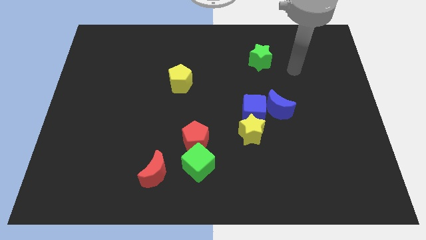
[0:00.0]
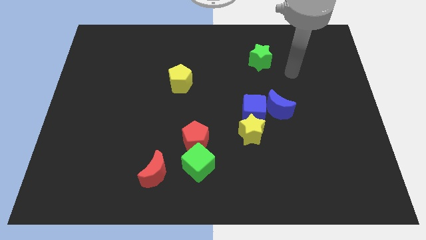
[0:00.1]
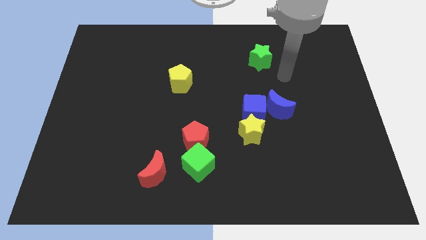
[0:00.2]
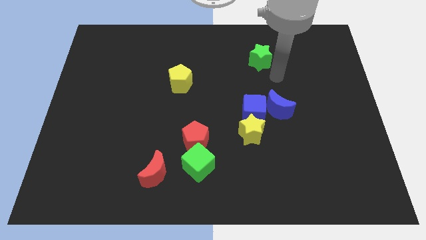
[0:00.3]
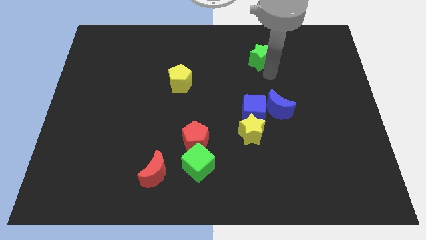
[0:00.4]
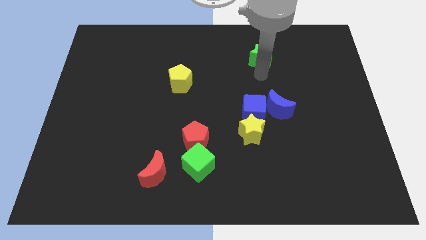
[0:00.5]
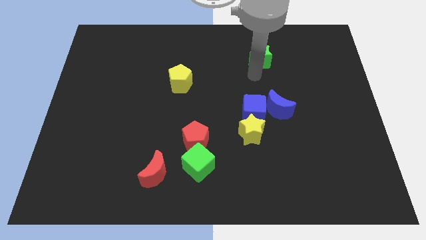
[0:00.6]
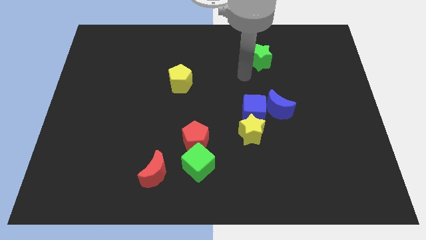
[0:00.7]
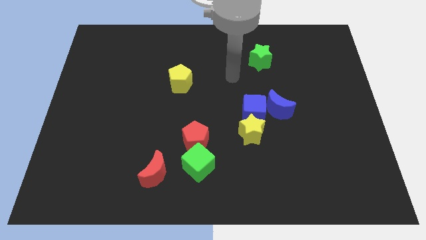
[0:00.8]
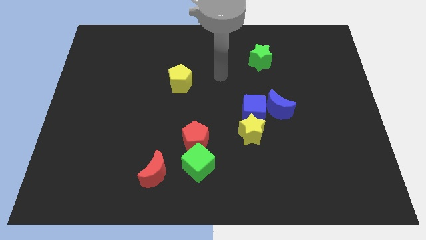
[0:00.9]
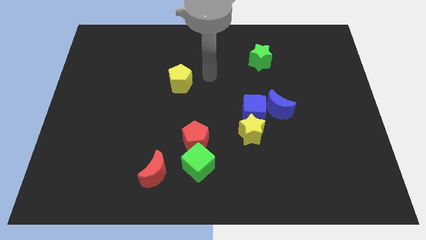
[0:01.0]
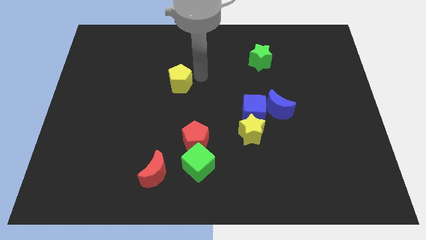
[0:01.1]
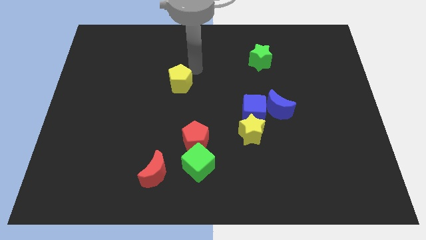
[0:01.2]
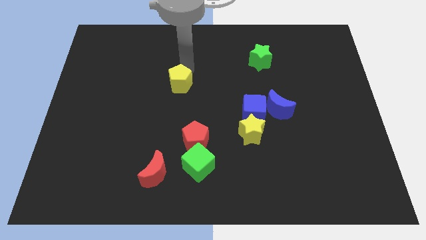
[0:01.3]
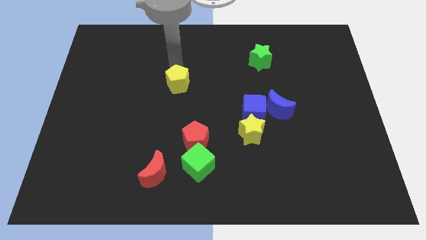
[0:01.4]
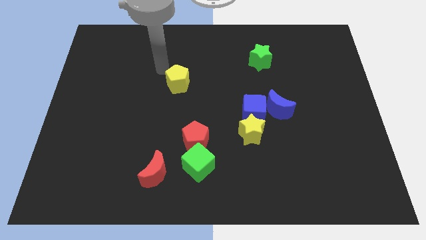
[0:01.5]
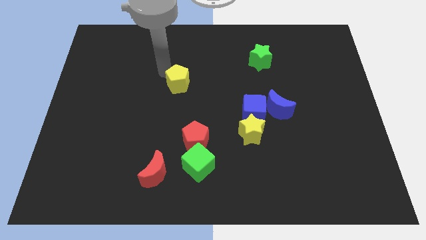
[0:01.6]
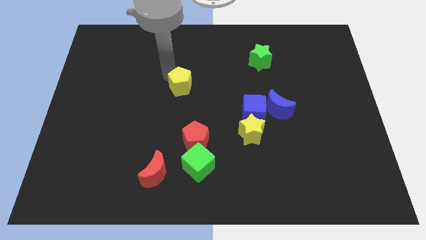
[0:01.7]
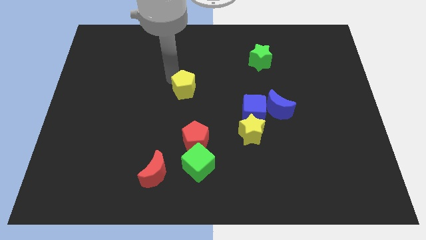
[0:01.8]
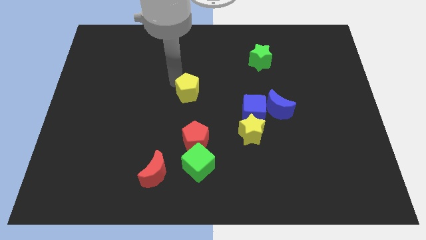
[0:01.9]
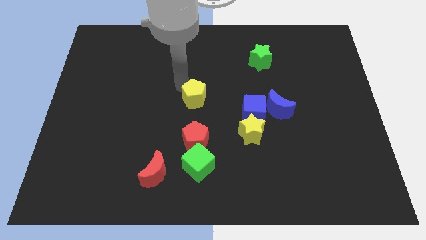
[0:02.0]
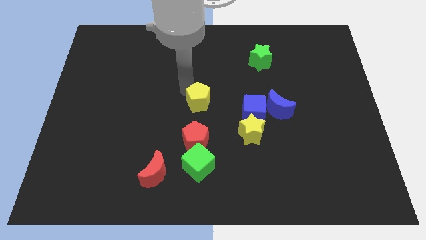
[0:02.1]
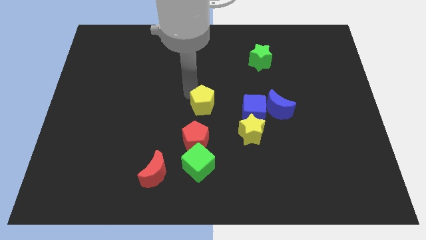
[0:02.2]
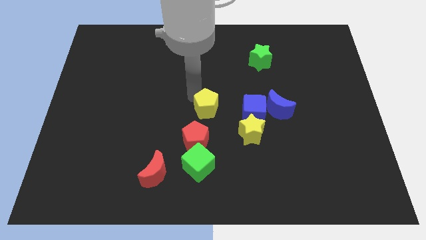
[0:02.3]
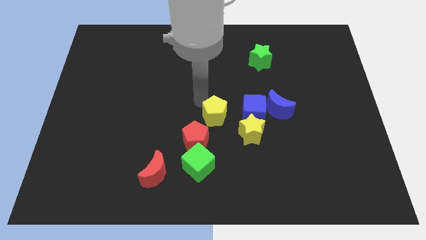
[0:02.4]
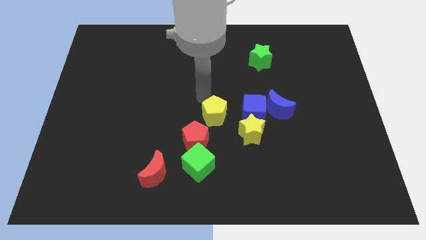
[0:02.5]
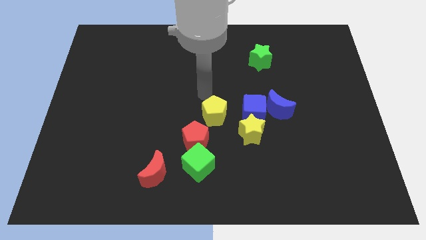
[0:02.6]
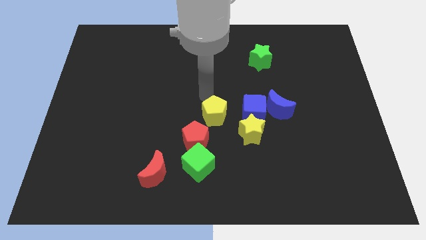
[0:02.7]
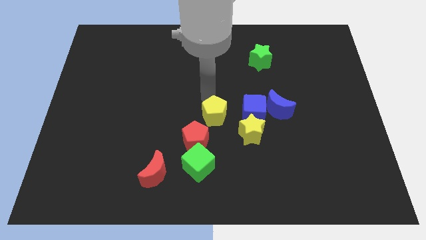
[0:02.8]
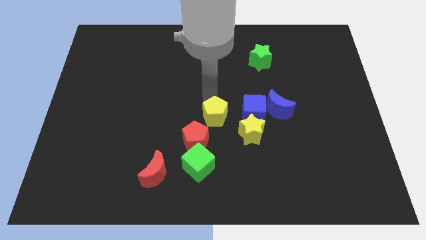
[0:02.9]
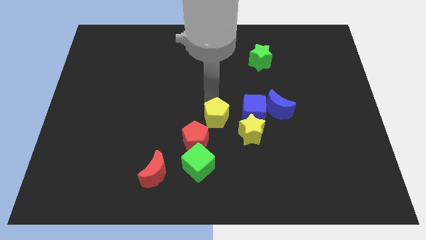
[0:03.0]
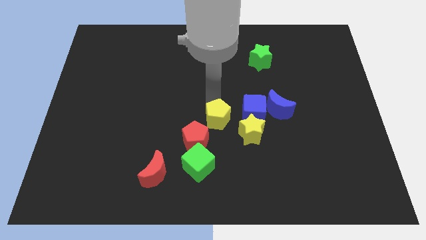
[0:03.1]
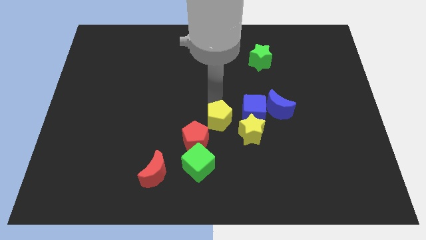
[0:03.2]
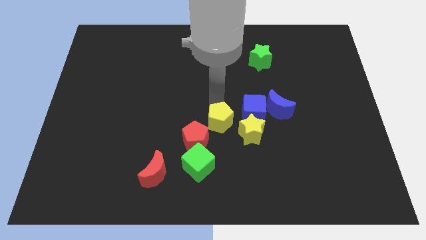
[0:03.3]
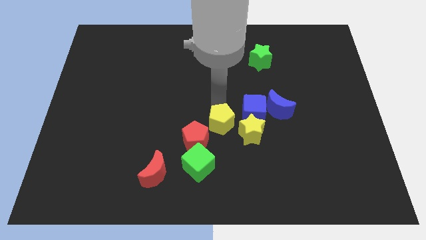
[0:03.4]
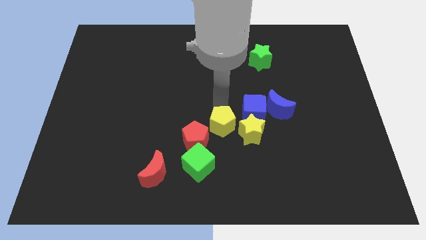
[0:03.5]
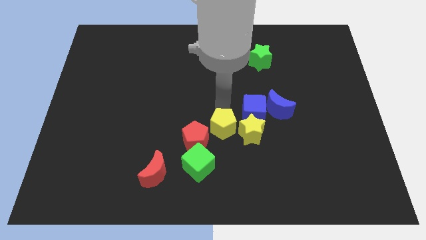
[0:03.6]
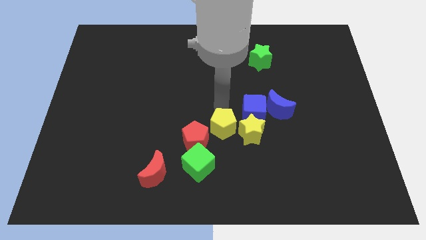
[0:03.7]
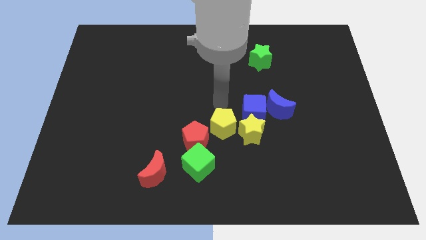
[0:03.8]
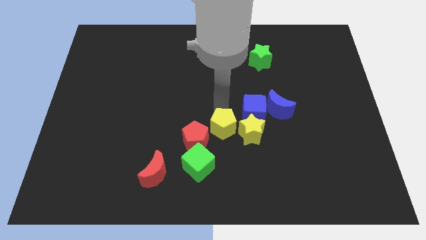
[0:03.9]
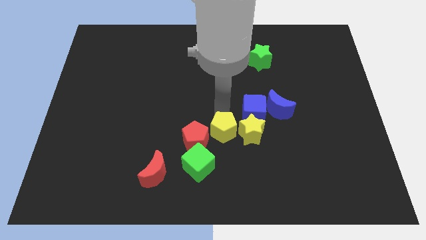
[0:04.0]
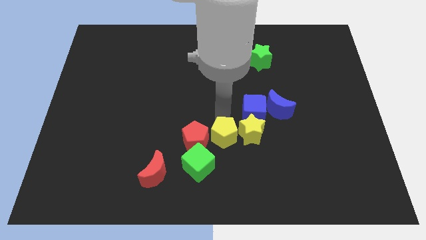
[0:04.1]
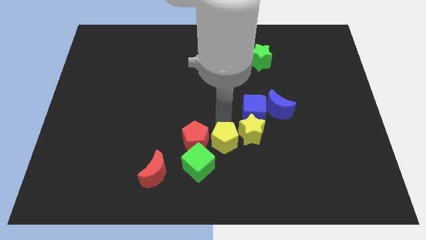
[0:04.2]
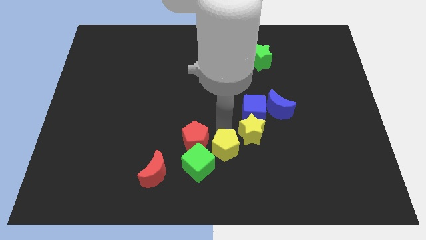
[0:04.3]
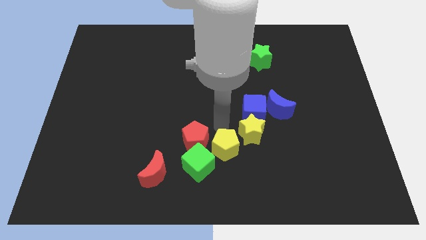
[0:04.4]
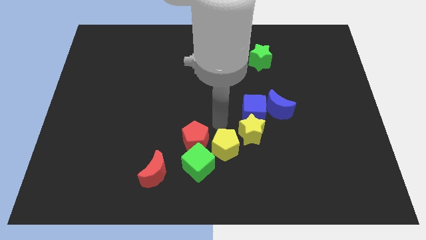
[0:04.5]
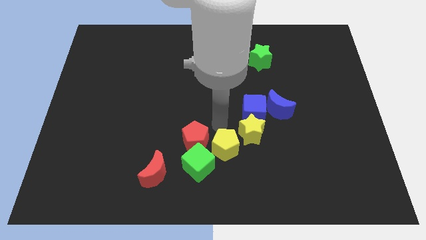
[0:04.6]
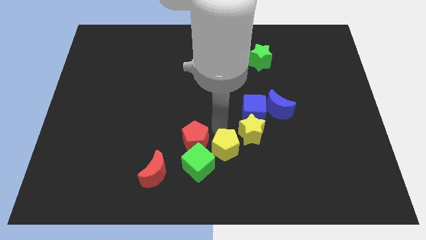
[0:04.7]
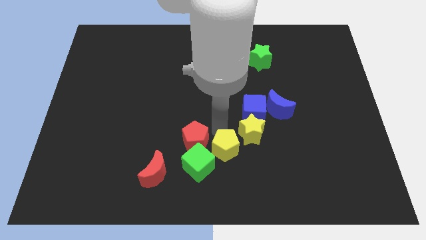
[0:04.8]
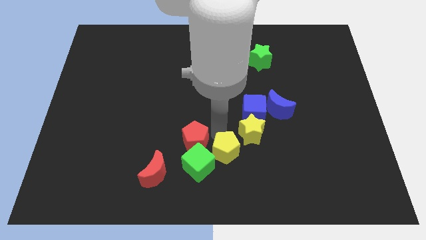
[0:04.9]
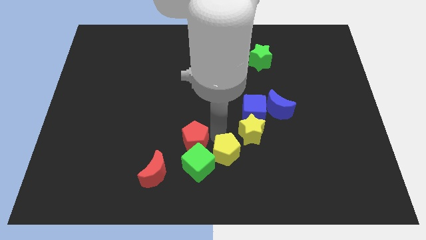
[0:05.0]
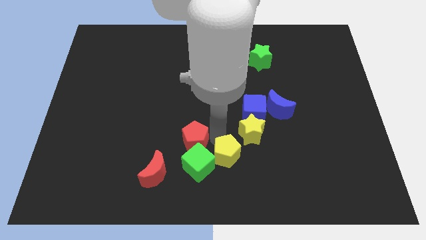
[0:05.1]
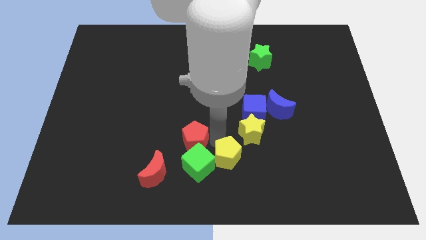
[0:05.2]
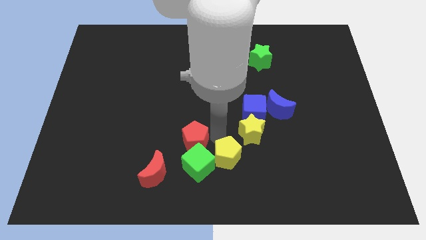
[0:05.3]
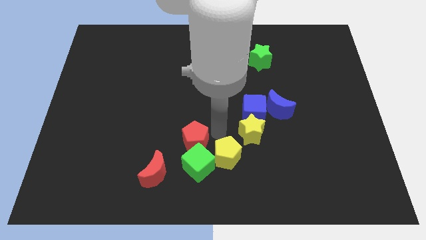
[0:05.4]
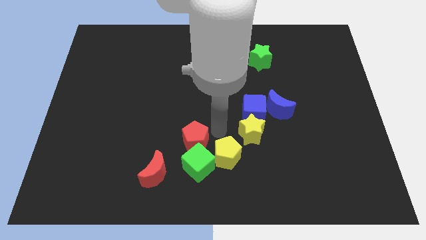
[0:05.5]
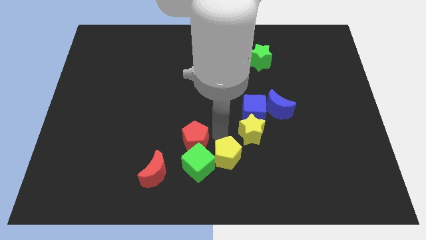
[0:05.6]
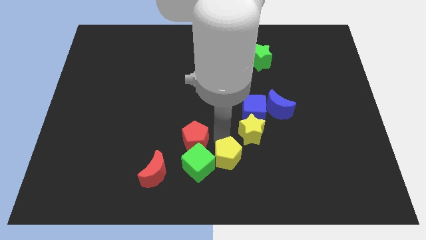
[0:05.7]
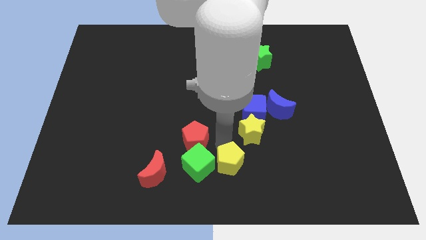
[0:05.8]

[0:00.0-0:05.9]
push the yellow pentagon to the right side of the red moon

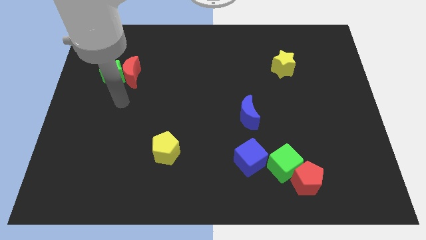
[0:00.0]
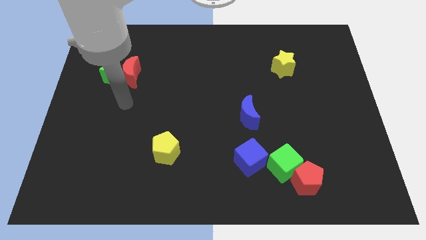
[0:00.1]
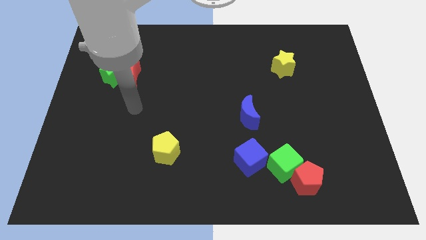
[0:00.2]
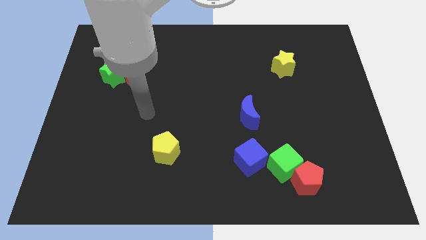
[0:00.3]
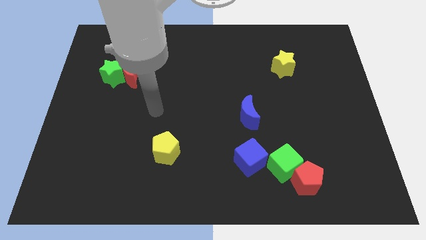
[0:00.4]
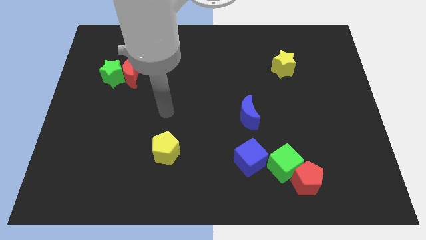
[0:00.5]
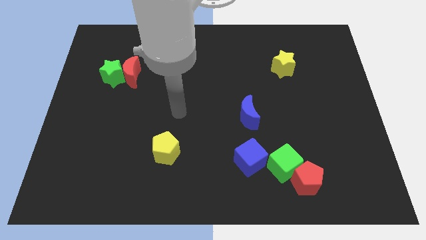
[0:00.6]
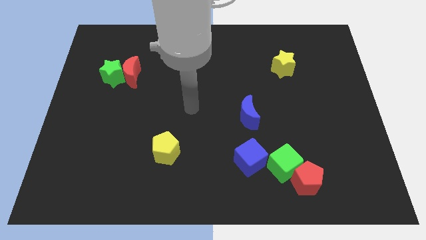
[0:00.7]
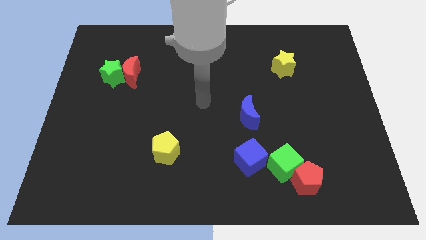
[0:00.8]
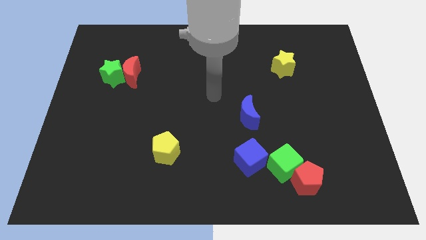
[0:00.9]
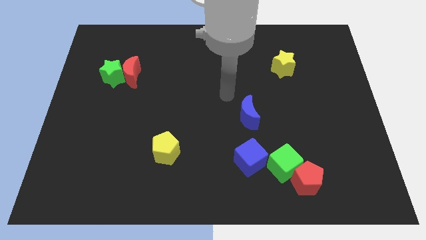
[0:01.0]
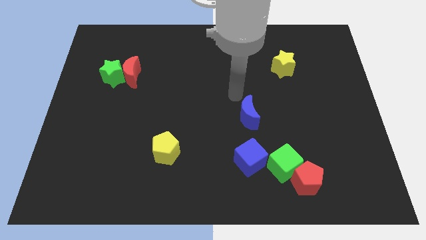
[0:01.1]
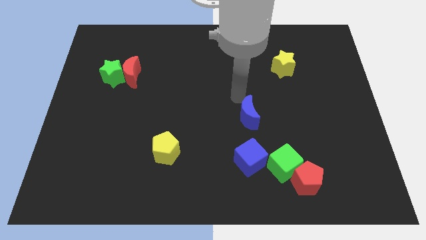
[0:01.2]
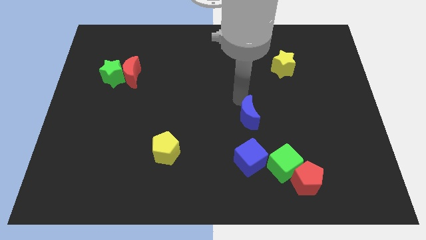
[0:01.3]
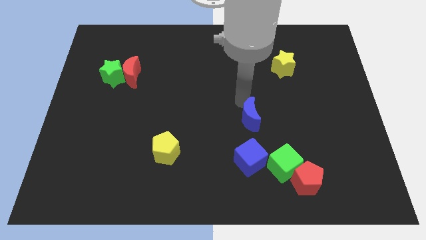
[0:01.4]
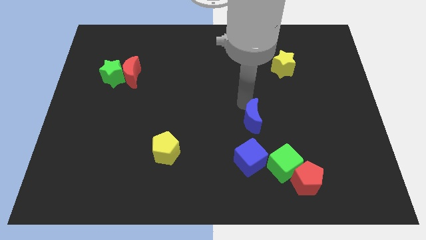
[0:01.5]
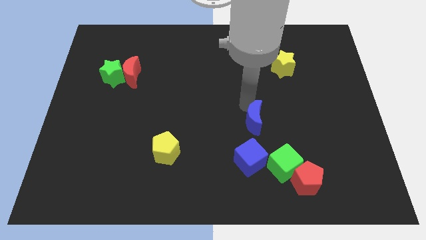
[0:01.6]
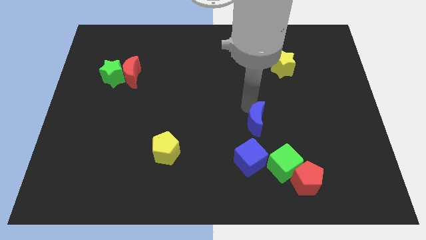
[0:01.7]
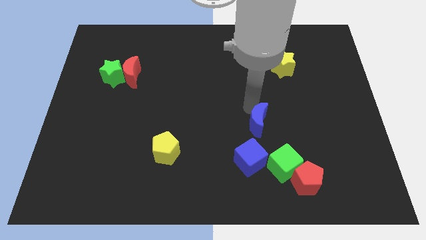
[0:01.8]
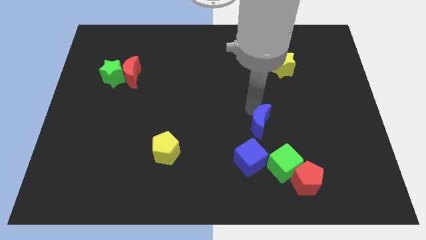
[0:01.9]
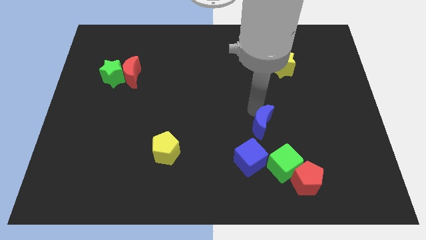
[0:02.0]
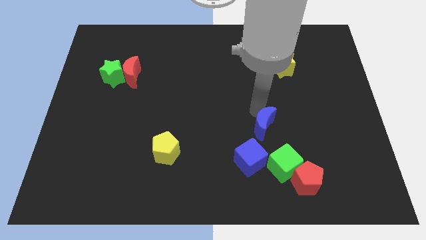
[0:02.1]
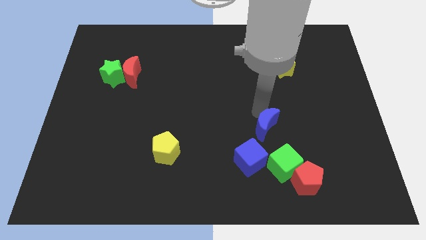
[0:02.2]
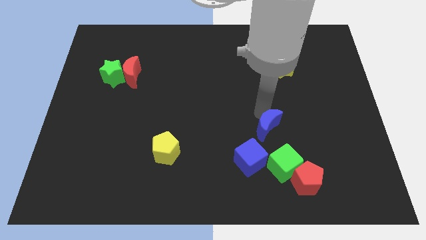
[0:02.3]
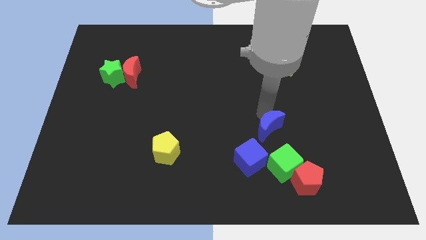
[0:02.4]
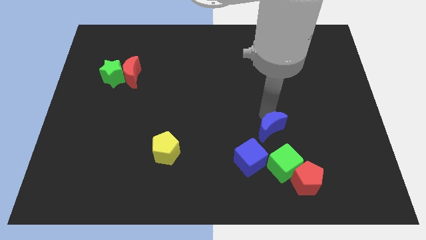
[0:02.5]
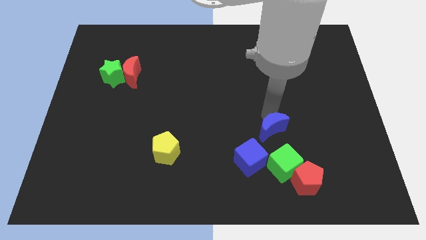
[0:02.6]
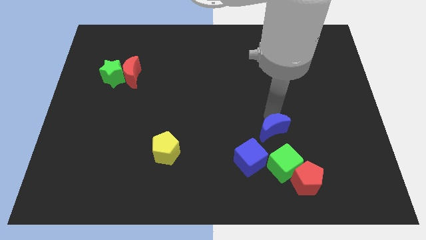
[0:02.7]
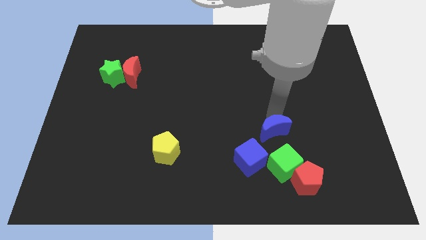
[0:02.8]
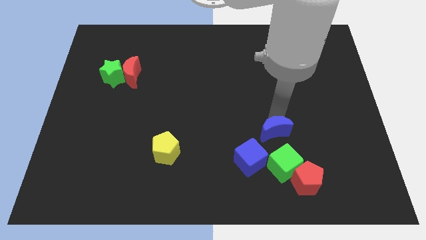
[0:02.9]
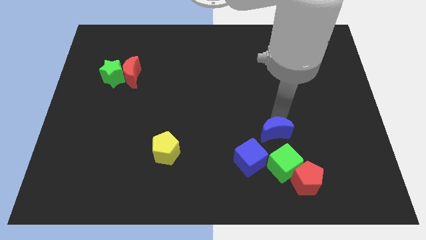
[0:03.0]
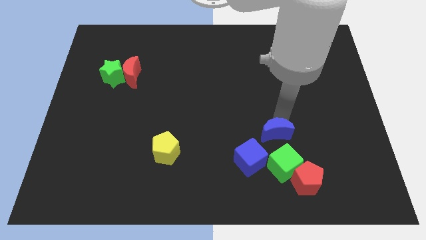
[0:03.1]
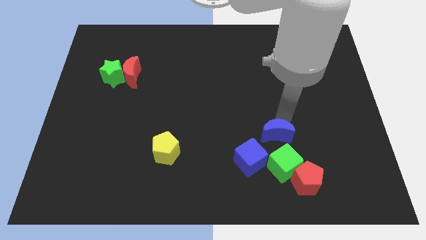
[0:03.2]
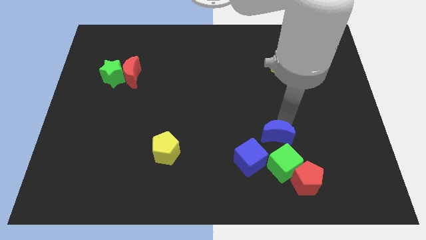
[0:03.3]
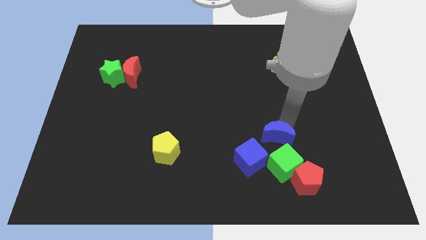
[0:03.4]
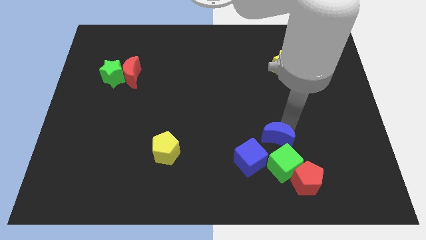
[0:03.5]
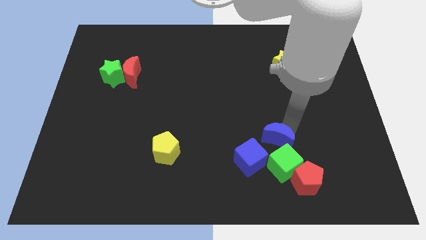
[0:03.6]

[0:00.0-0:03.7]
move the blue moon to the top left side of the red pentagon
